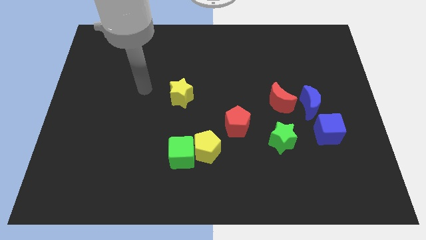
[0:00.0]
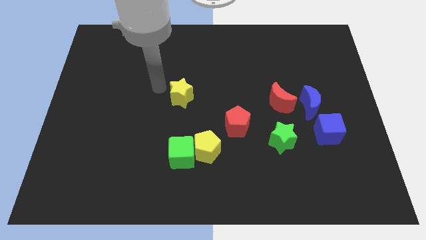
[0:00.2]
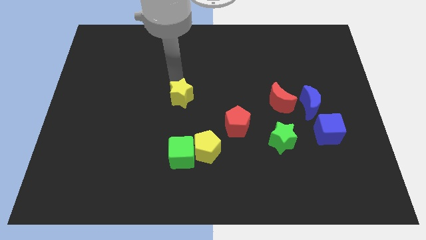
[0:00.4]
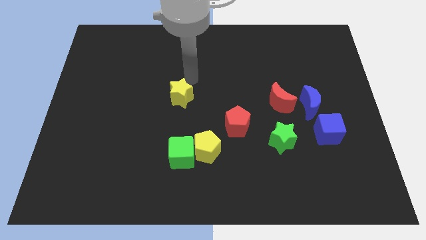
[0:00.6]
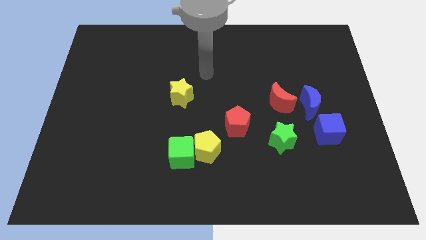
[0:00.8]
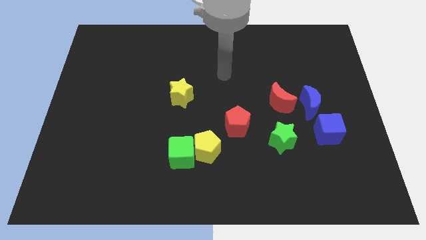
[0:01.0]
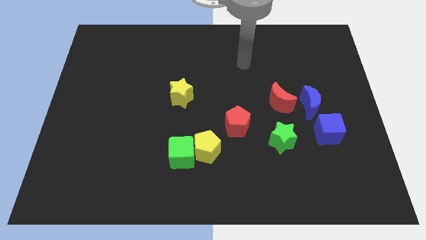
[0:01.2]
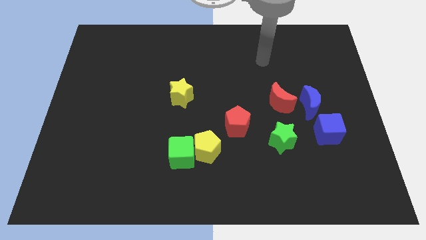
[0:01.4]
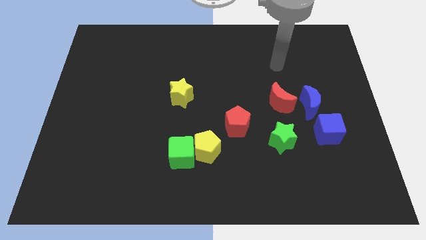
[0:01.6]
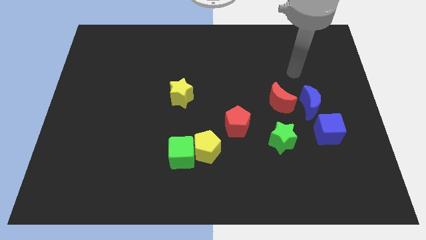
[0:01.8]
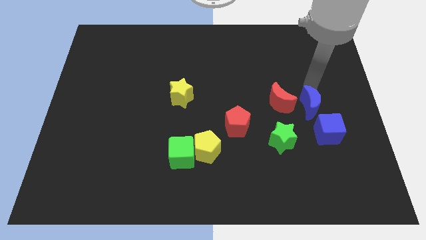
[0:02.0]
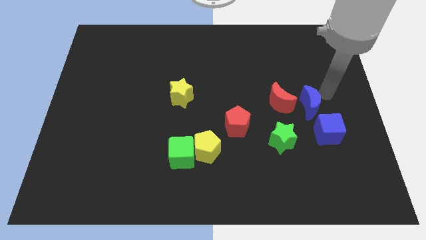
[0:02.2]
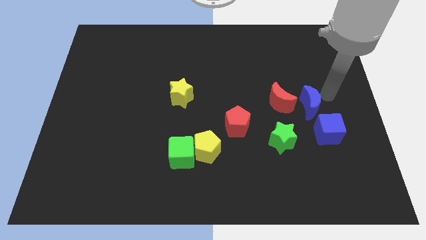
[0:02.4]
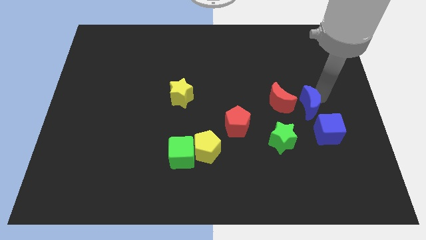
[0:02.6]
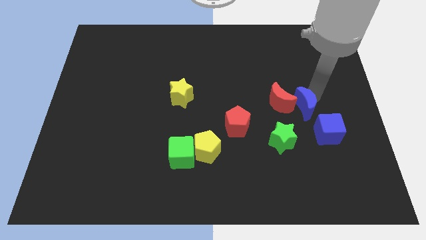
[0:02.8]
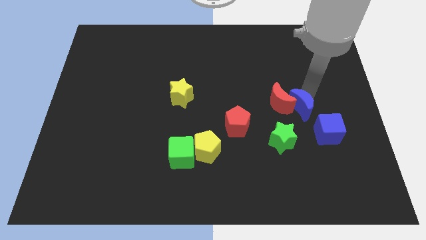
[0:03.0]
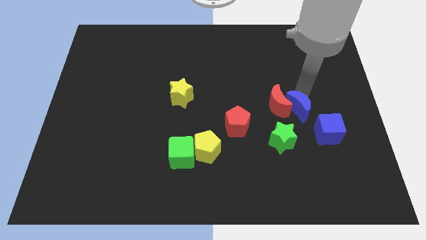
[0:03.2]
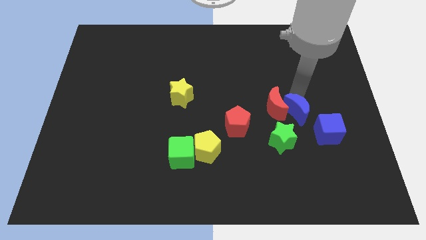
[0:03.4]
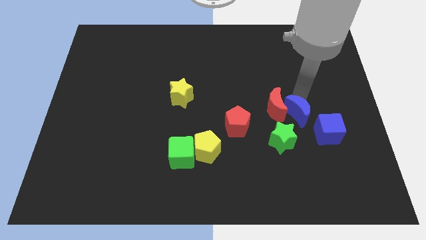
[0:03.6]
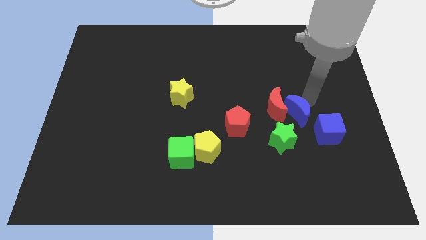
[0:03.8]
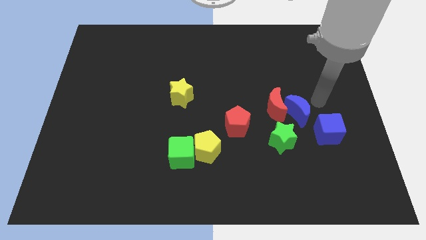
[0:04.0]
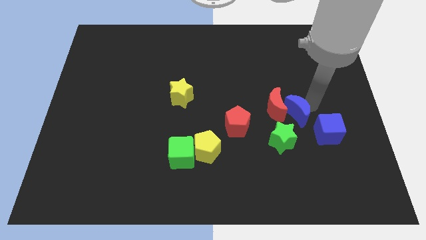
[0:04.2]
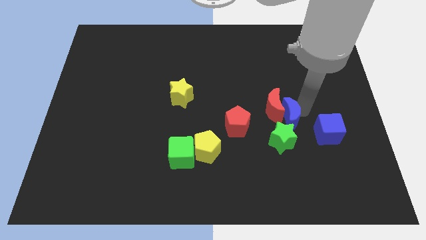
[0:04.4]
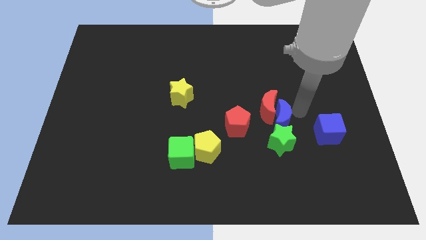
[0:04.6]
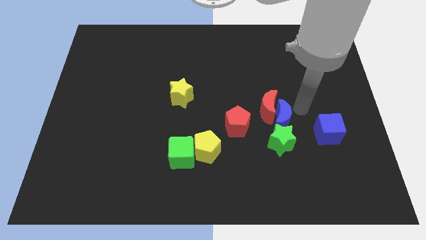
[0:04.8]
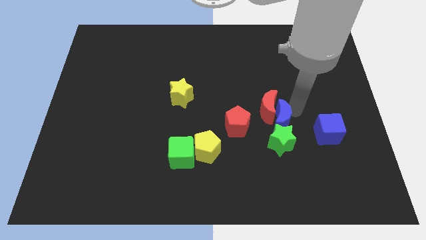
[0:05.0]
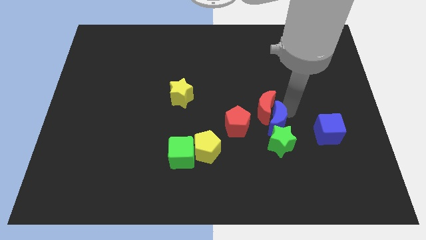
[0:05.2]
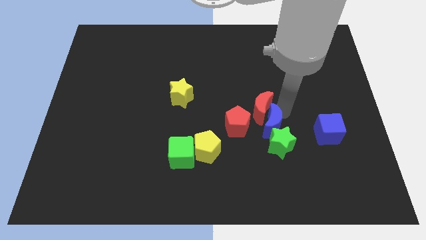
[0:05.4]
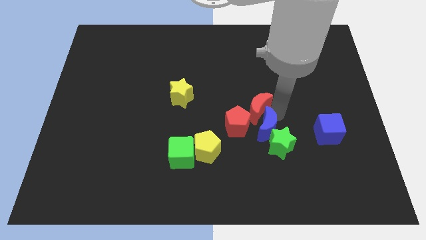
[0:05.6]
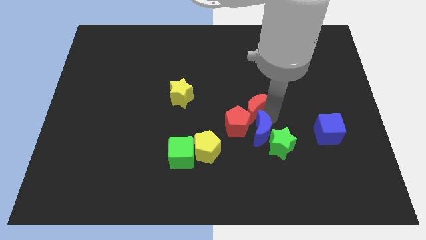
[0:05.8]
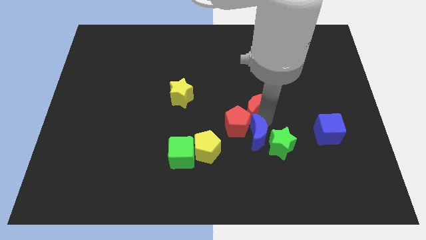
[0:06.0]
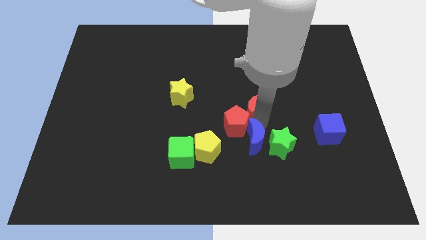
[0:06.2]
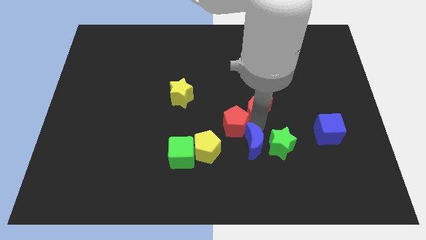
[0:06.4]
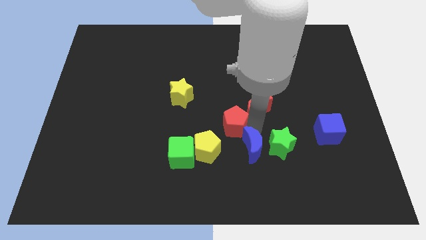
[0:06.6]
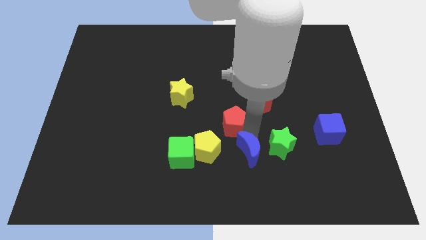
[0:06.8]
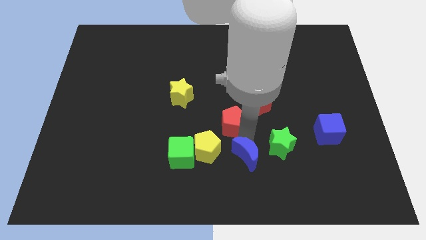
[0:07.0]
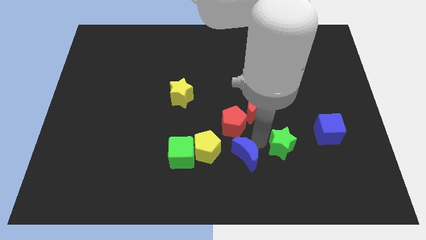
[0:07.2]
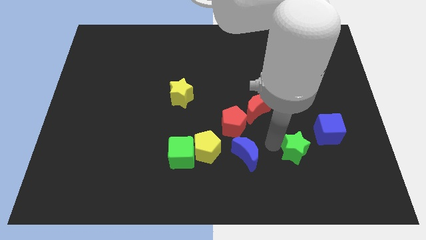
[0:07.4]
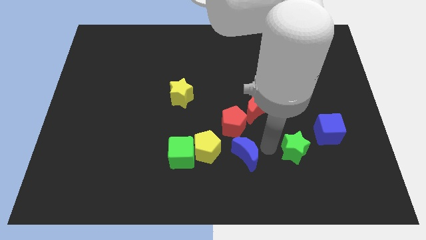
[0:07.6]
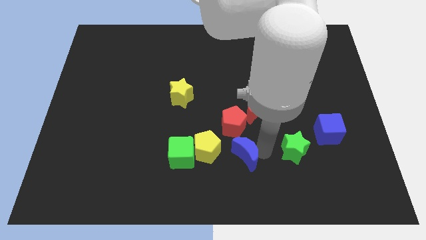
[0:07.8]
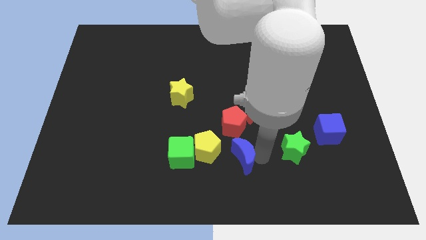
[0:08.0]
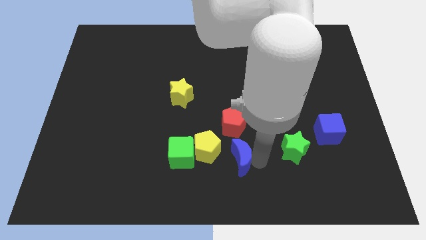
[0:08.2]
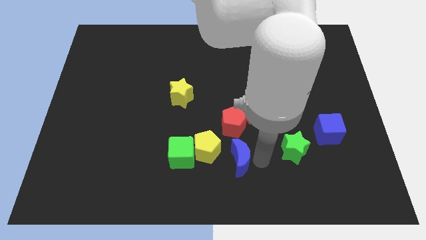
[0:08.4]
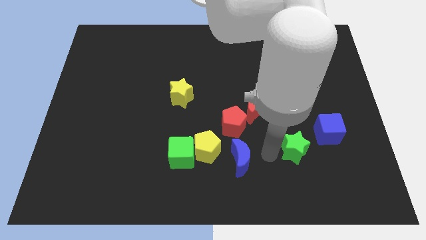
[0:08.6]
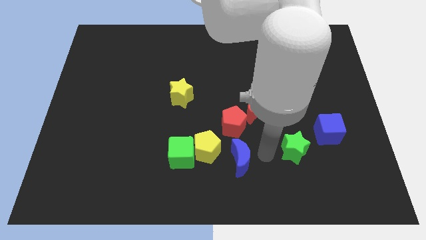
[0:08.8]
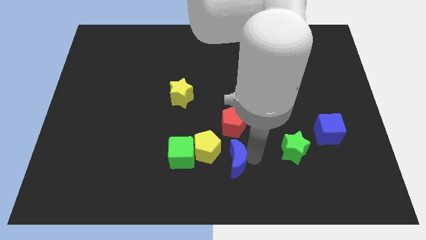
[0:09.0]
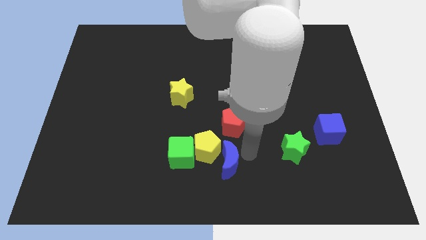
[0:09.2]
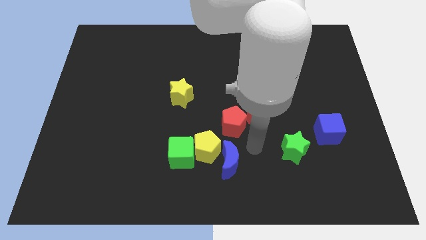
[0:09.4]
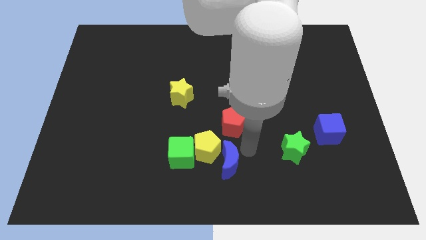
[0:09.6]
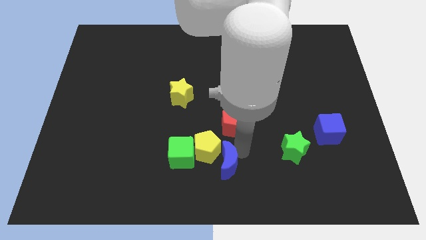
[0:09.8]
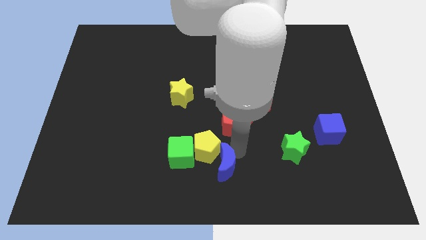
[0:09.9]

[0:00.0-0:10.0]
move the blue moon diagonally down and to the right of the green cube

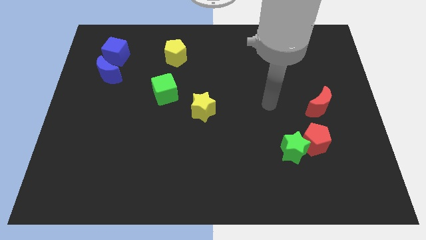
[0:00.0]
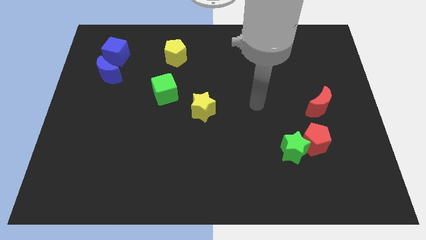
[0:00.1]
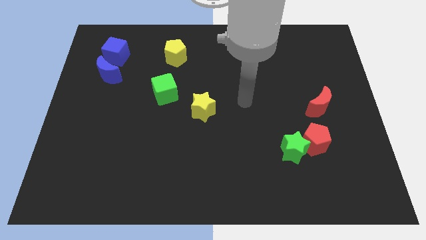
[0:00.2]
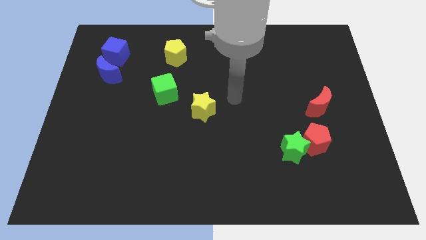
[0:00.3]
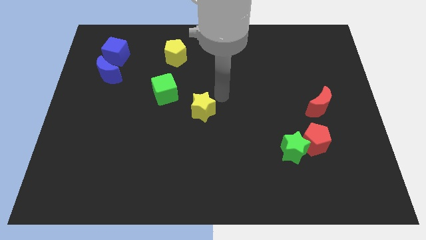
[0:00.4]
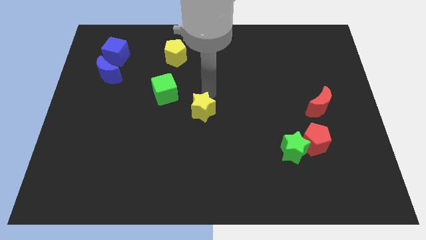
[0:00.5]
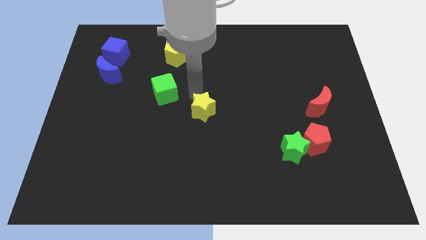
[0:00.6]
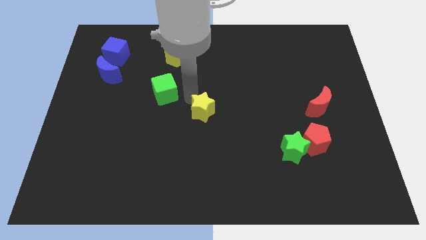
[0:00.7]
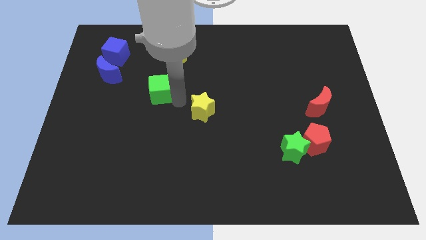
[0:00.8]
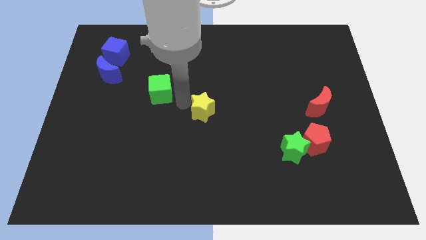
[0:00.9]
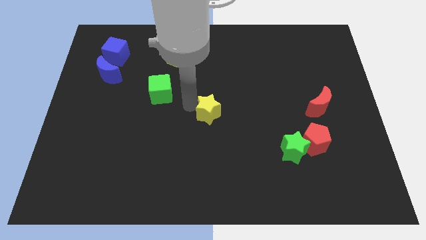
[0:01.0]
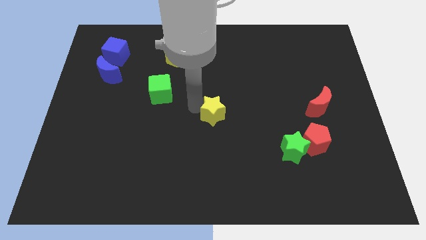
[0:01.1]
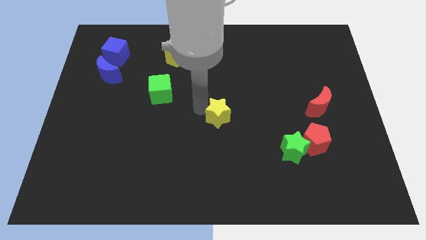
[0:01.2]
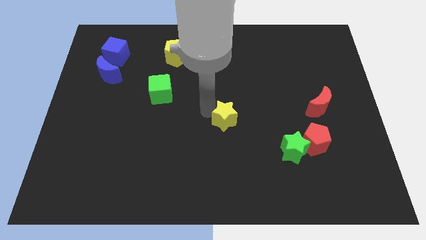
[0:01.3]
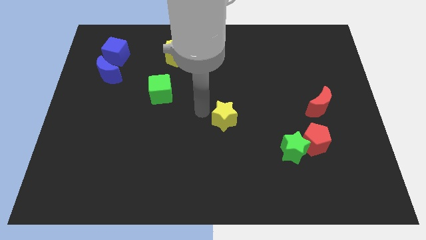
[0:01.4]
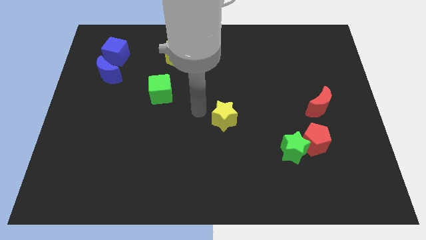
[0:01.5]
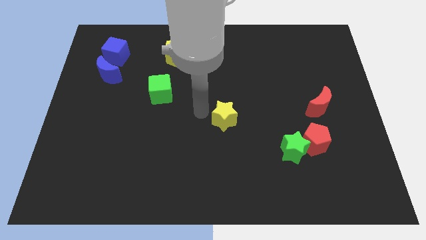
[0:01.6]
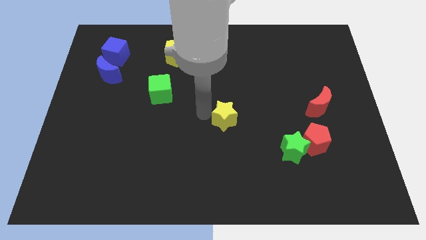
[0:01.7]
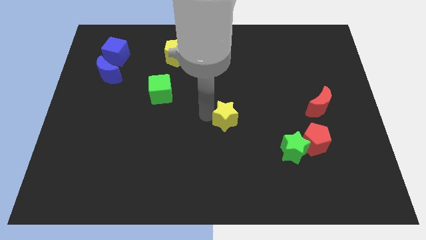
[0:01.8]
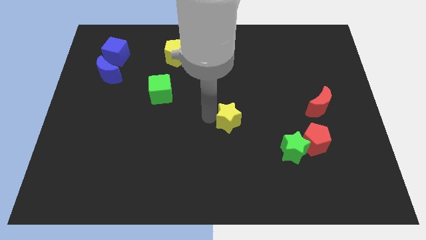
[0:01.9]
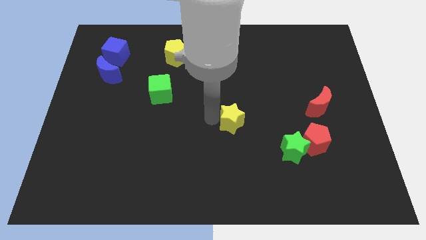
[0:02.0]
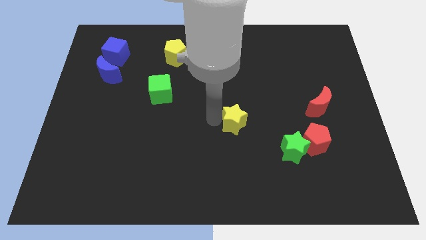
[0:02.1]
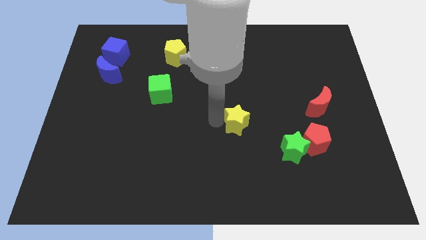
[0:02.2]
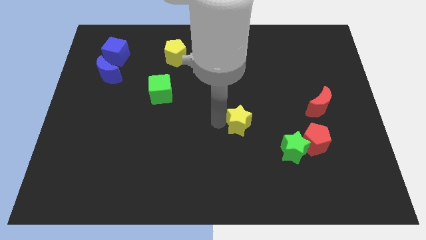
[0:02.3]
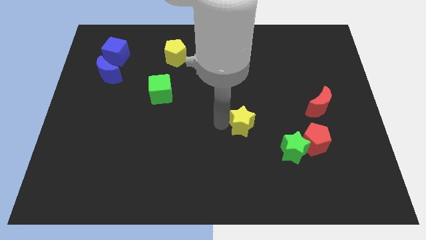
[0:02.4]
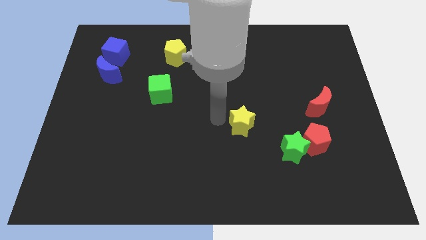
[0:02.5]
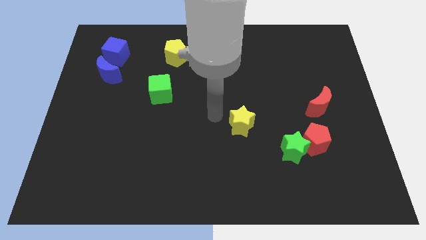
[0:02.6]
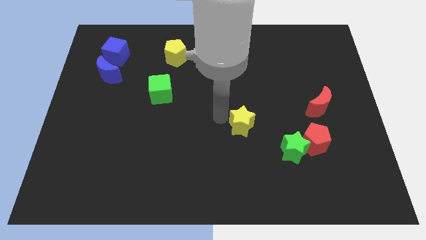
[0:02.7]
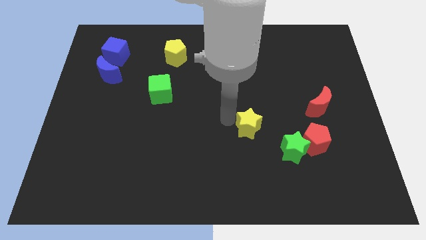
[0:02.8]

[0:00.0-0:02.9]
put the yellow star diagonally up and to the left of the green star
